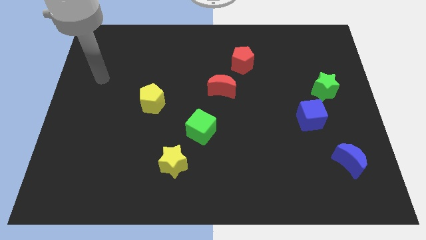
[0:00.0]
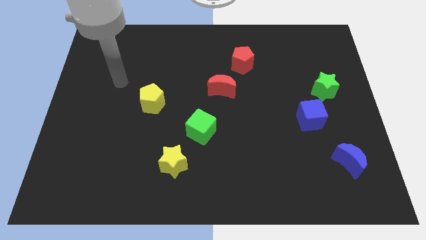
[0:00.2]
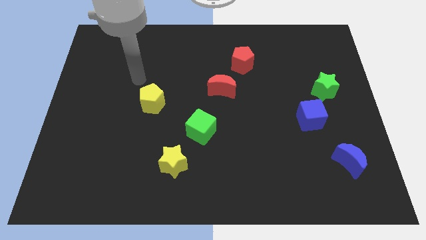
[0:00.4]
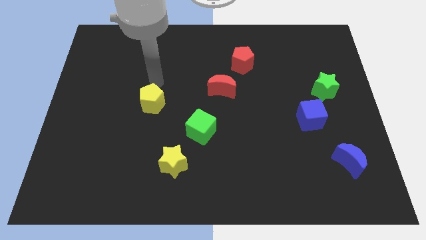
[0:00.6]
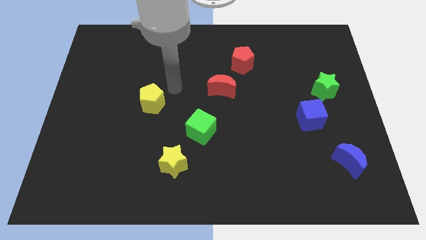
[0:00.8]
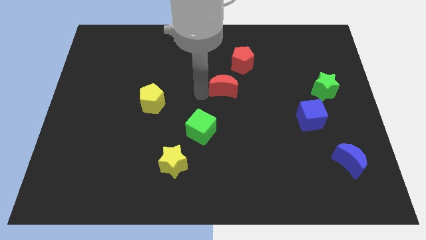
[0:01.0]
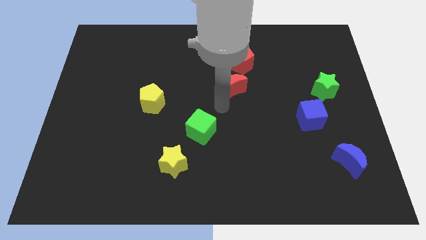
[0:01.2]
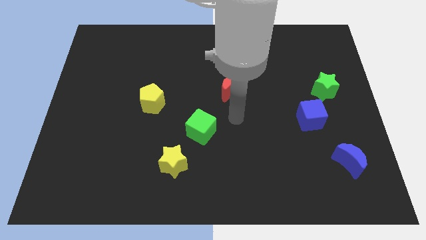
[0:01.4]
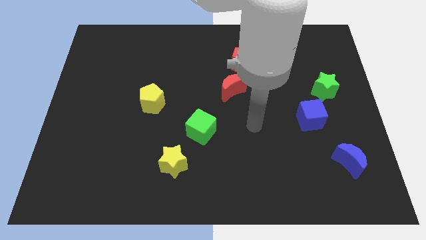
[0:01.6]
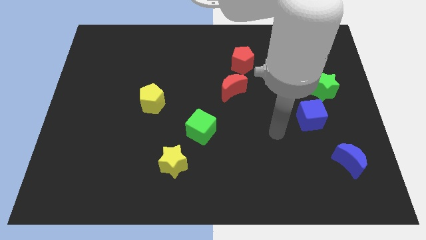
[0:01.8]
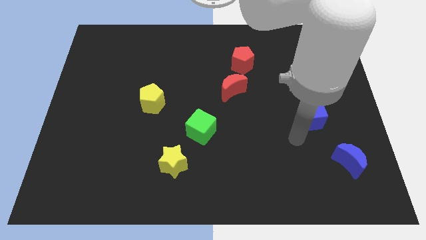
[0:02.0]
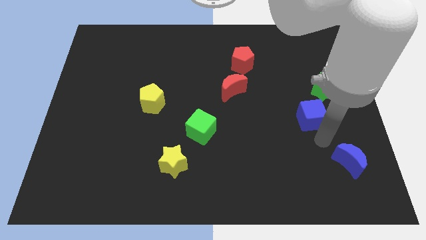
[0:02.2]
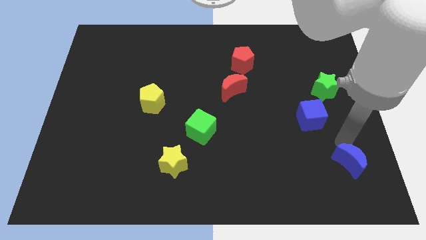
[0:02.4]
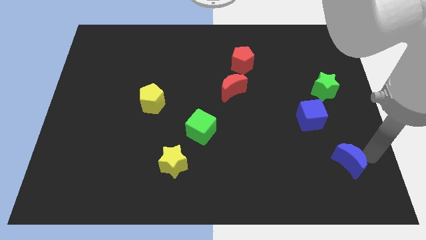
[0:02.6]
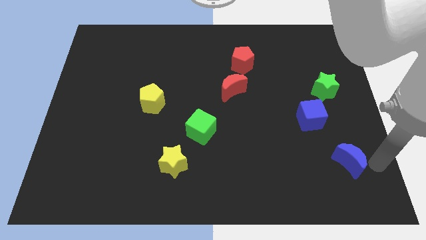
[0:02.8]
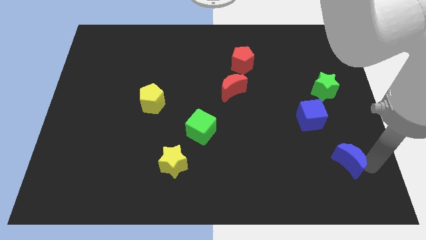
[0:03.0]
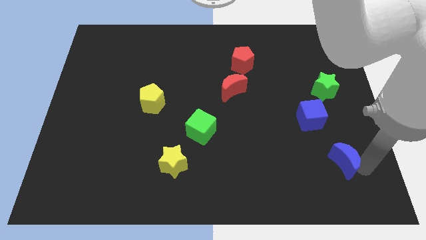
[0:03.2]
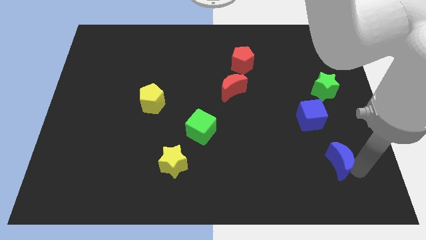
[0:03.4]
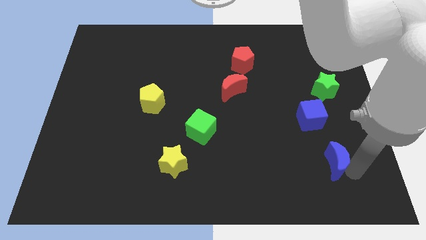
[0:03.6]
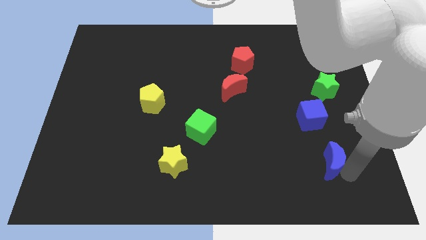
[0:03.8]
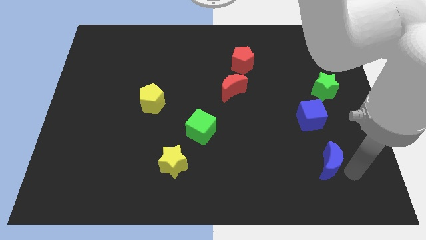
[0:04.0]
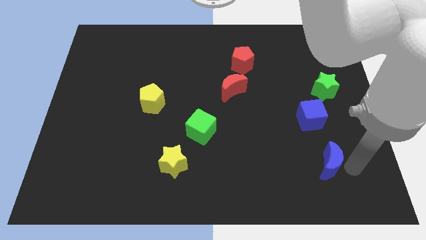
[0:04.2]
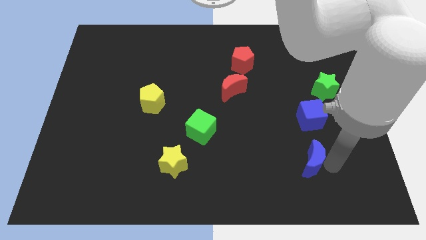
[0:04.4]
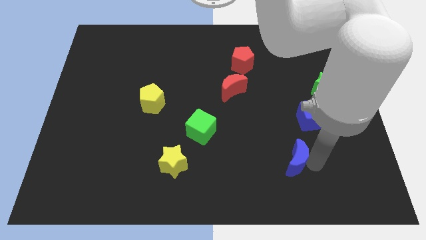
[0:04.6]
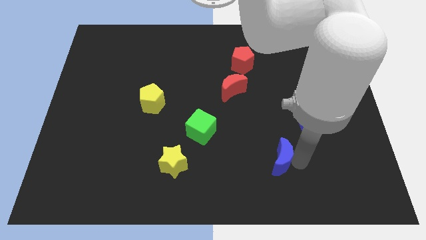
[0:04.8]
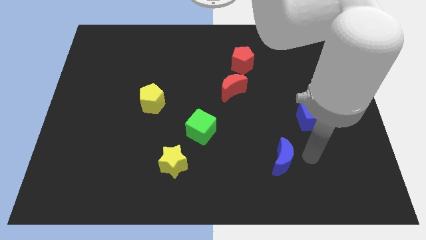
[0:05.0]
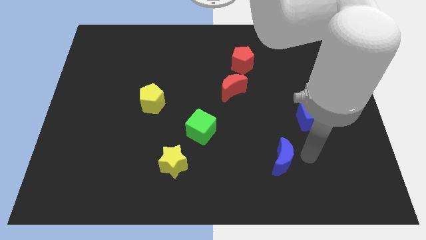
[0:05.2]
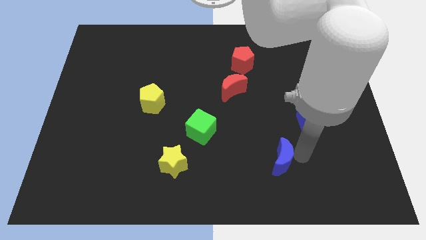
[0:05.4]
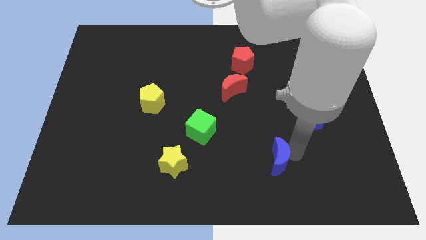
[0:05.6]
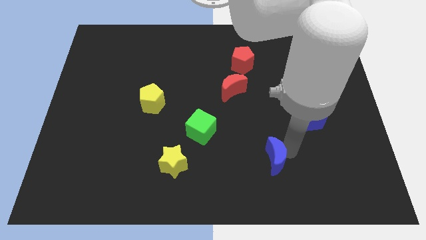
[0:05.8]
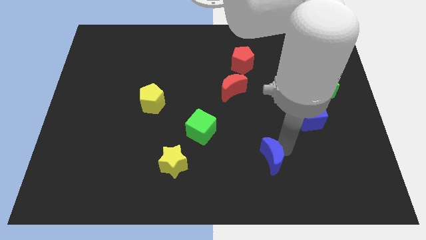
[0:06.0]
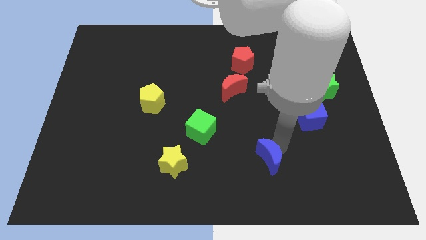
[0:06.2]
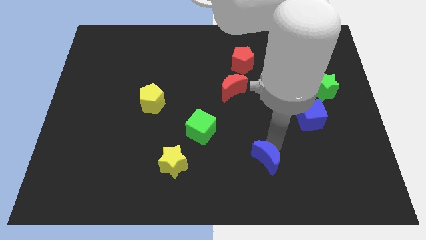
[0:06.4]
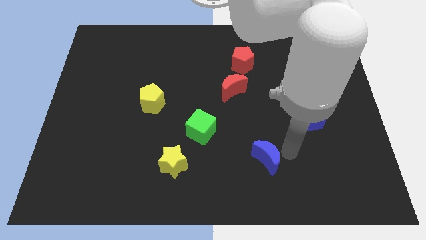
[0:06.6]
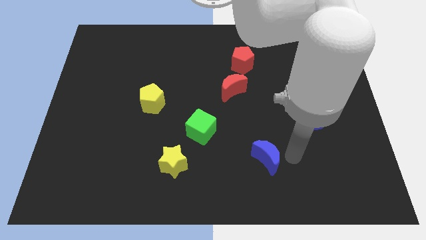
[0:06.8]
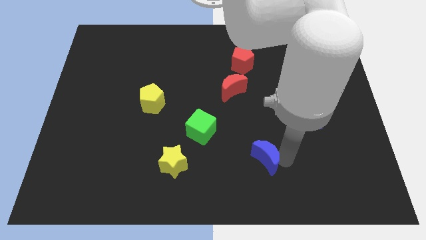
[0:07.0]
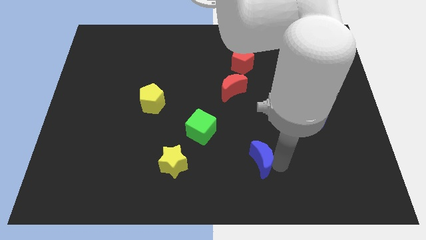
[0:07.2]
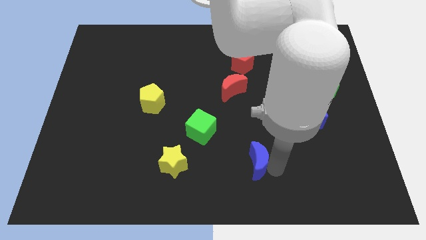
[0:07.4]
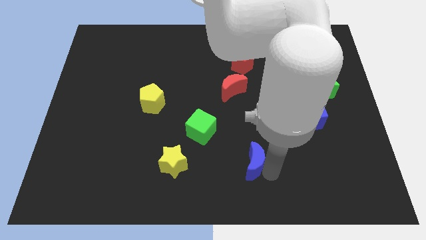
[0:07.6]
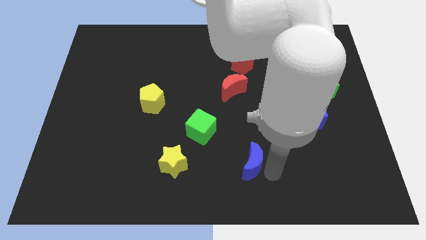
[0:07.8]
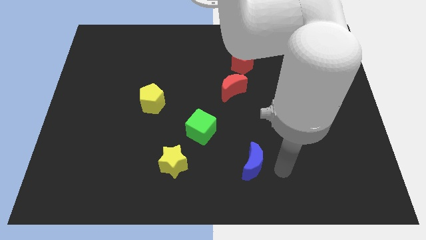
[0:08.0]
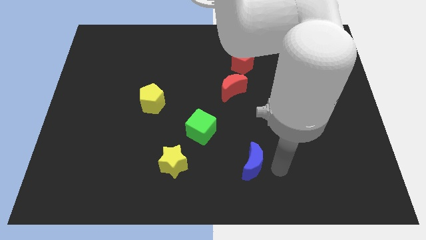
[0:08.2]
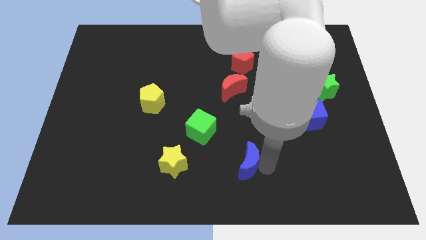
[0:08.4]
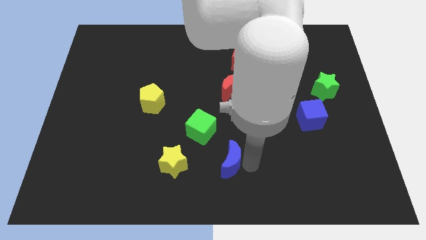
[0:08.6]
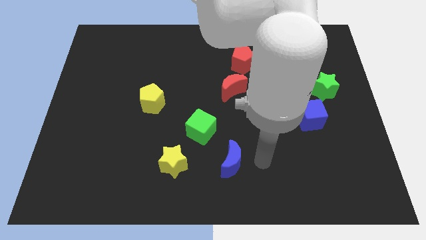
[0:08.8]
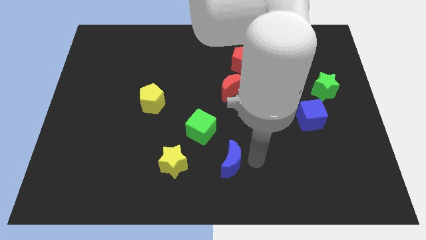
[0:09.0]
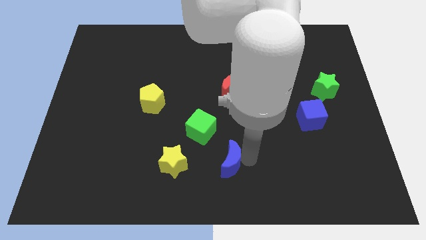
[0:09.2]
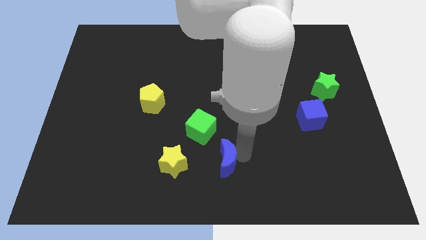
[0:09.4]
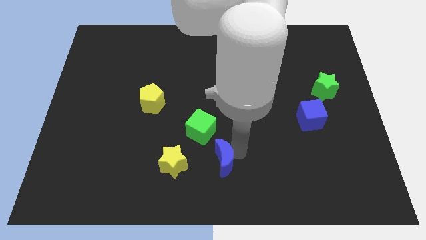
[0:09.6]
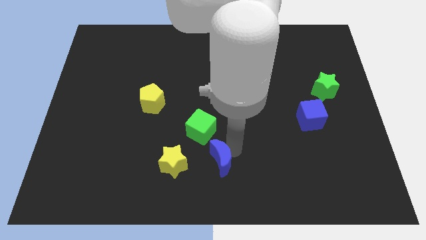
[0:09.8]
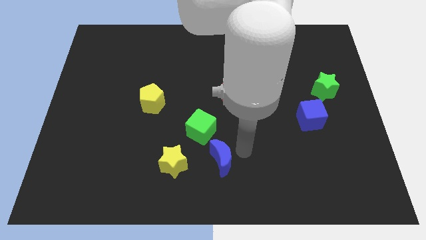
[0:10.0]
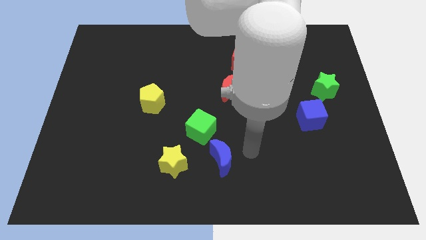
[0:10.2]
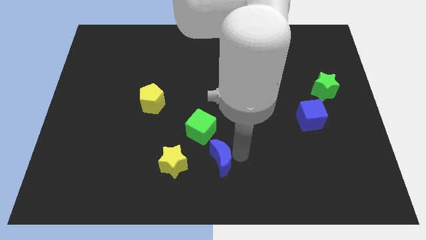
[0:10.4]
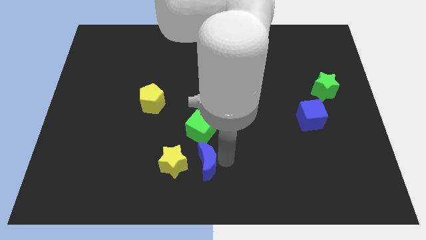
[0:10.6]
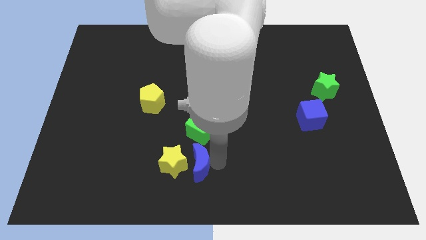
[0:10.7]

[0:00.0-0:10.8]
move the blue moon next to the yellow star

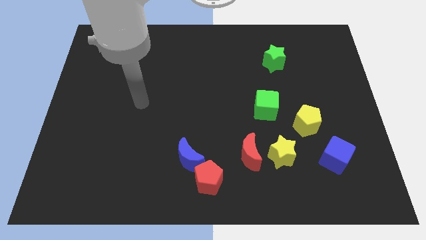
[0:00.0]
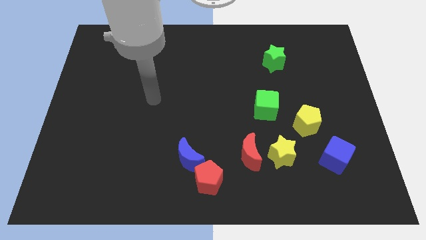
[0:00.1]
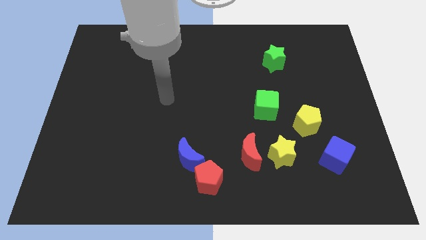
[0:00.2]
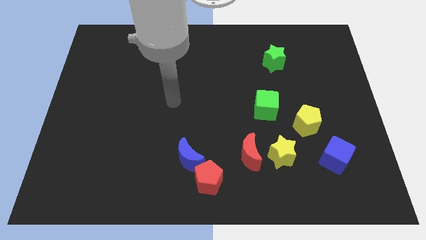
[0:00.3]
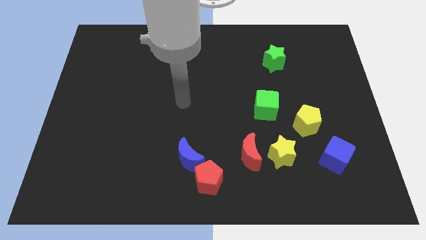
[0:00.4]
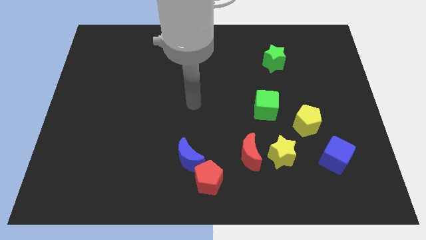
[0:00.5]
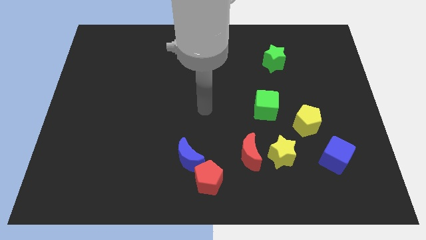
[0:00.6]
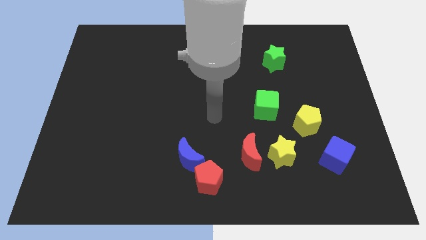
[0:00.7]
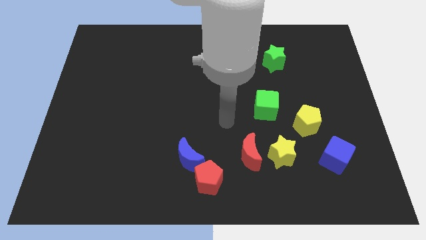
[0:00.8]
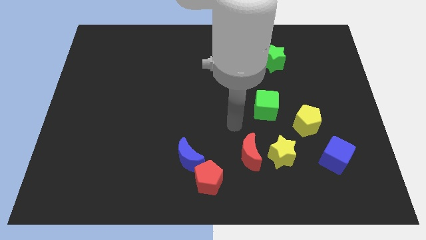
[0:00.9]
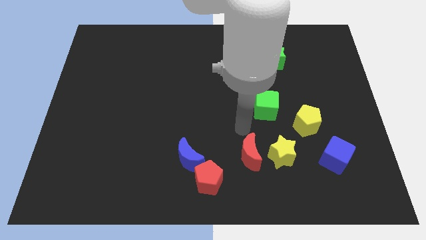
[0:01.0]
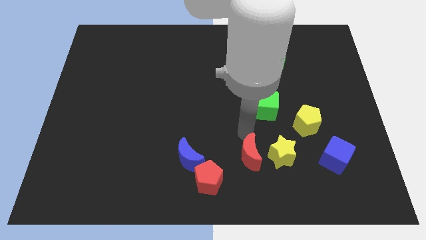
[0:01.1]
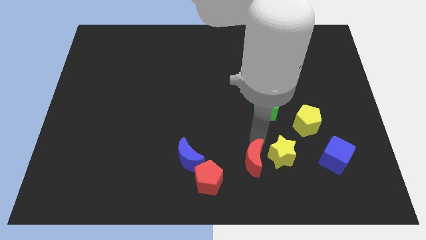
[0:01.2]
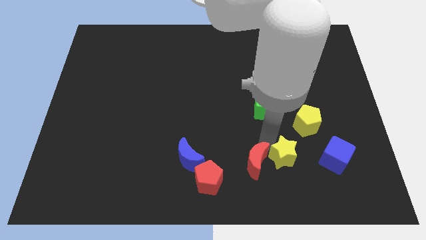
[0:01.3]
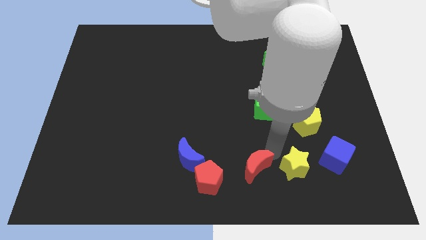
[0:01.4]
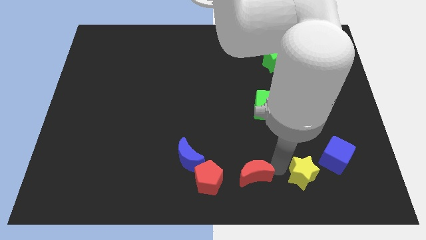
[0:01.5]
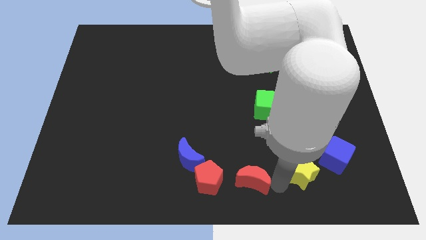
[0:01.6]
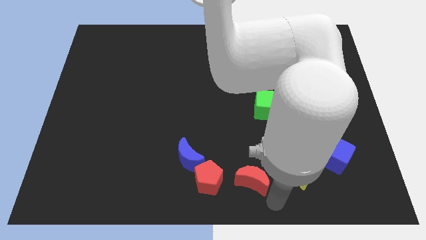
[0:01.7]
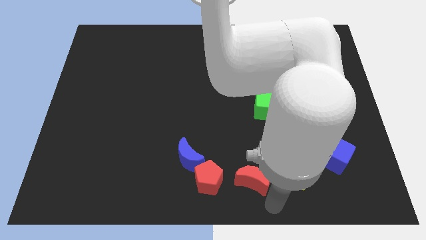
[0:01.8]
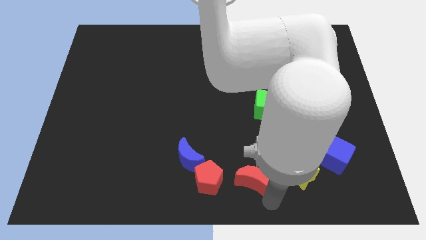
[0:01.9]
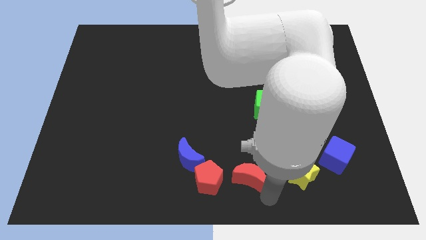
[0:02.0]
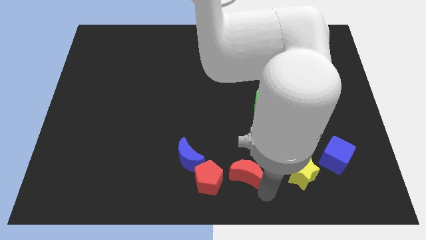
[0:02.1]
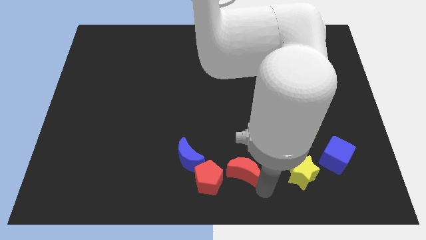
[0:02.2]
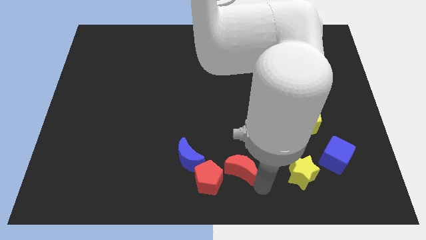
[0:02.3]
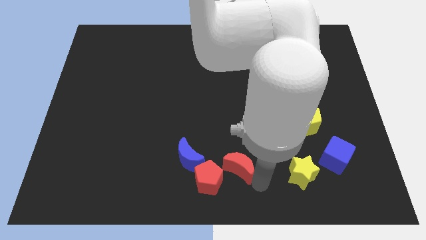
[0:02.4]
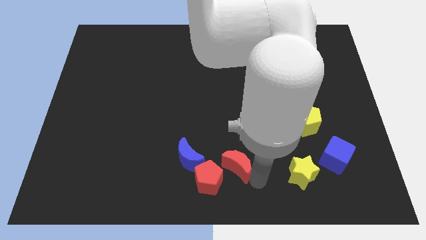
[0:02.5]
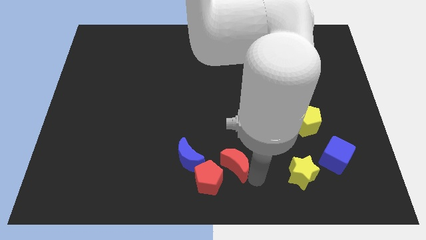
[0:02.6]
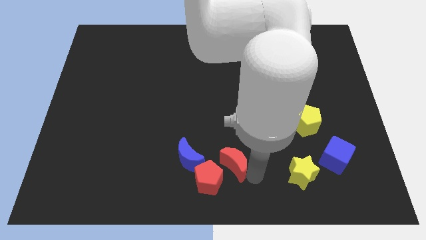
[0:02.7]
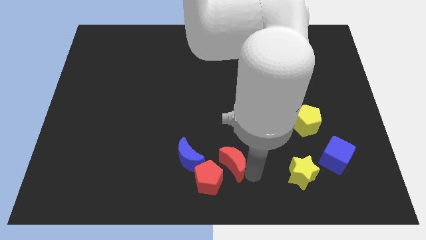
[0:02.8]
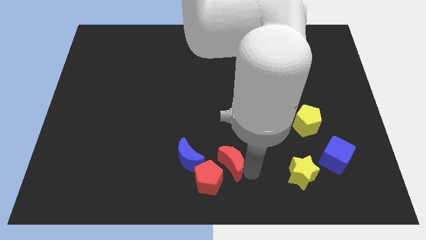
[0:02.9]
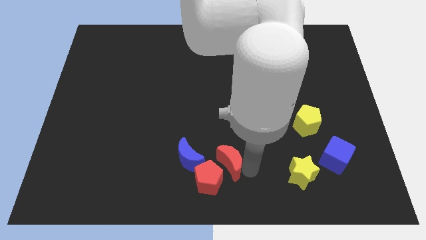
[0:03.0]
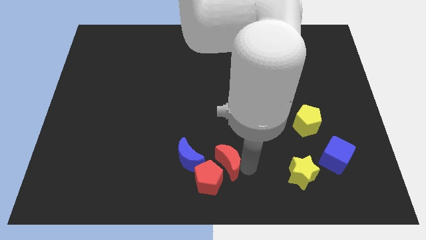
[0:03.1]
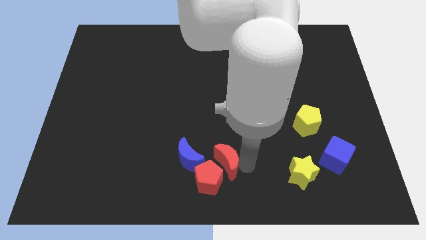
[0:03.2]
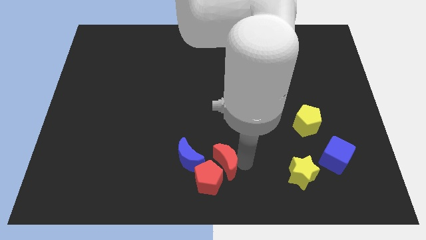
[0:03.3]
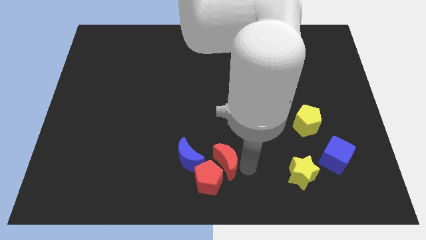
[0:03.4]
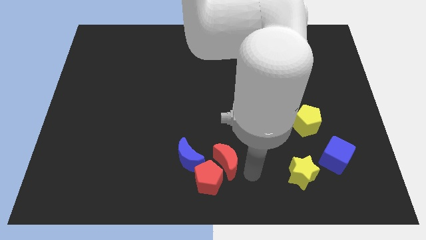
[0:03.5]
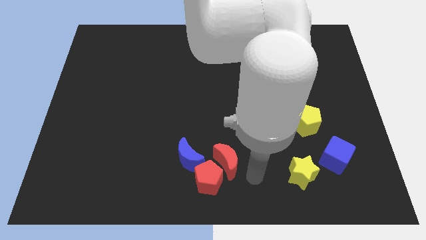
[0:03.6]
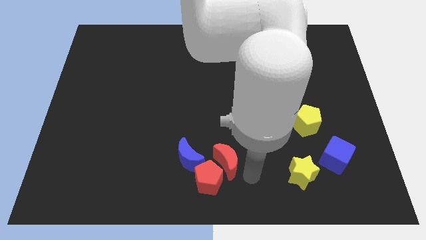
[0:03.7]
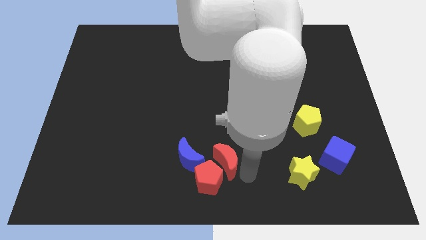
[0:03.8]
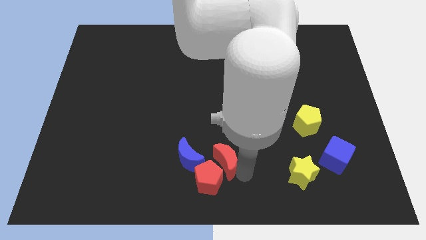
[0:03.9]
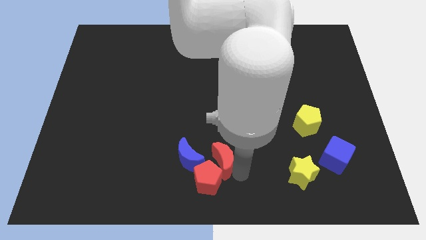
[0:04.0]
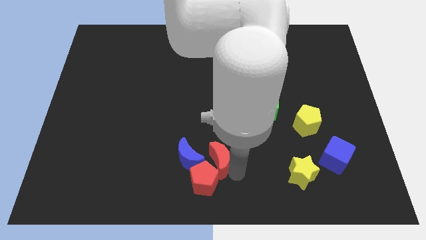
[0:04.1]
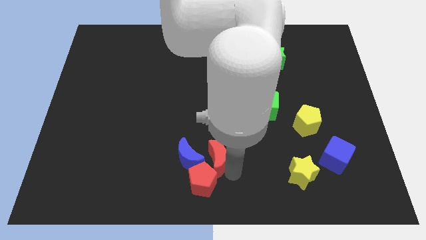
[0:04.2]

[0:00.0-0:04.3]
slide the red moon next to the blue moon
